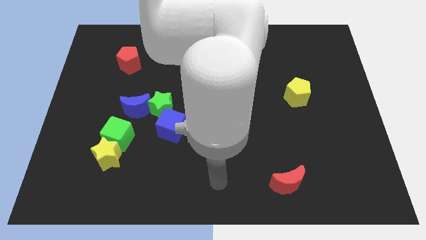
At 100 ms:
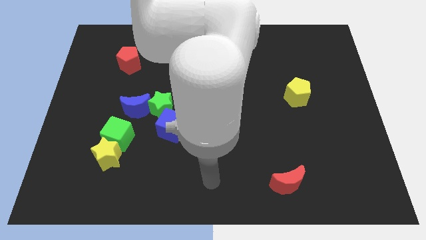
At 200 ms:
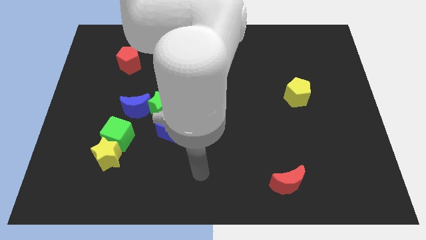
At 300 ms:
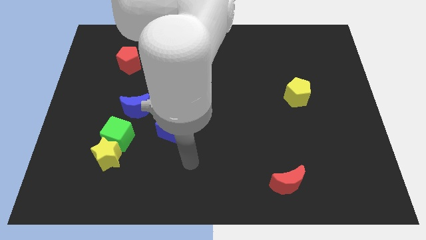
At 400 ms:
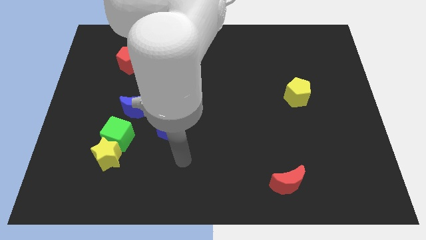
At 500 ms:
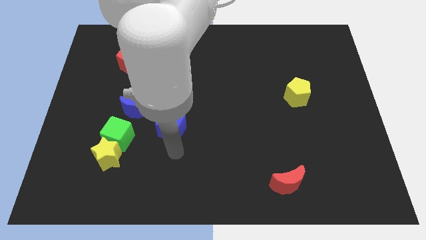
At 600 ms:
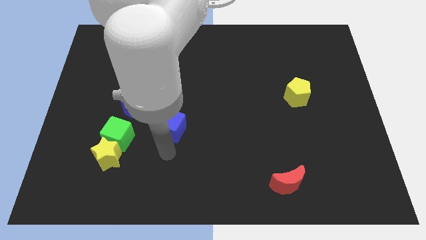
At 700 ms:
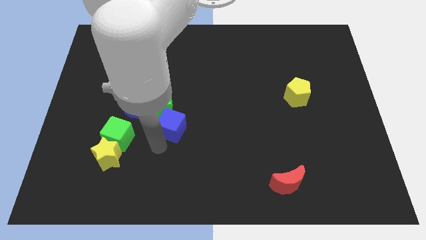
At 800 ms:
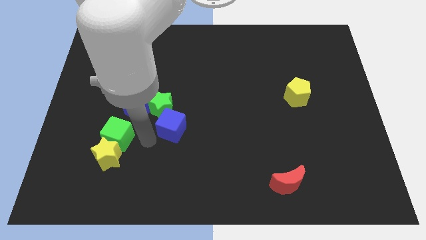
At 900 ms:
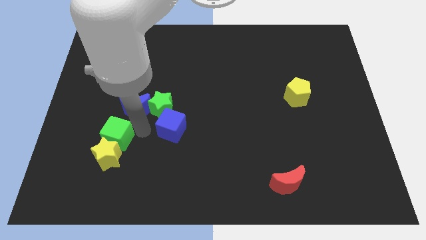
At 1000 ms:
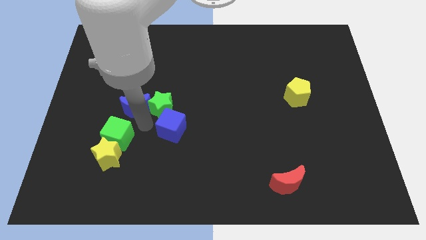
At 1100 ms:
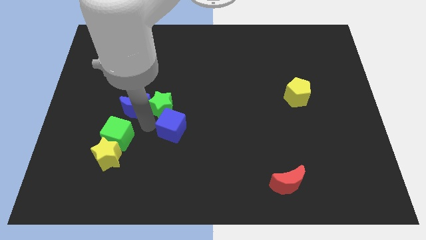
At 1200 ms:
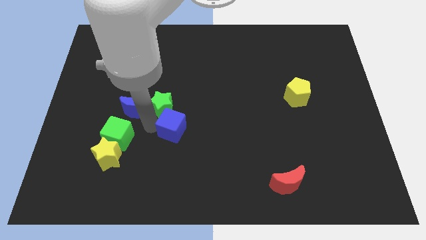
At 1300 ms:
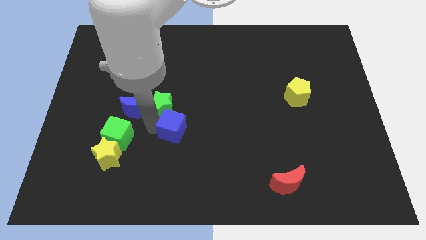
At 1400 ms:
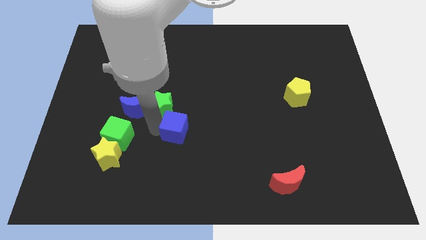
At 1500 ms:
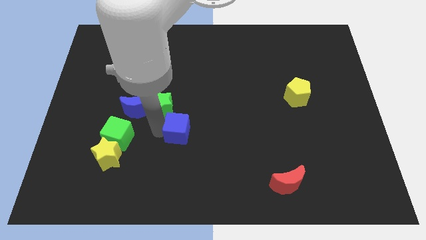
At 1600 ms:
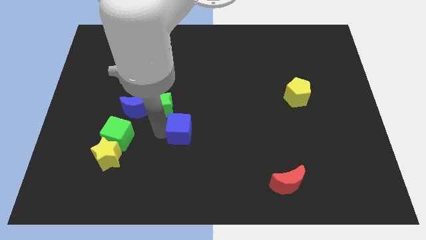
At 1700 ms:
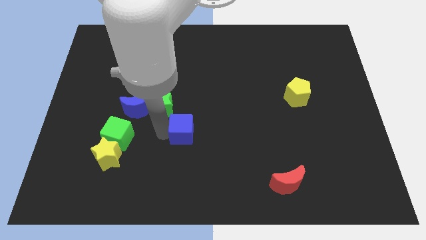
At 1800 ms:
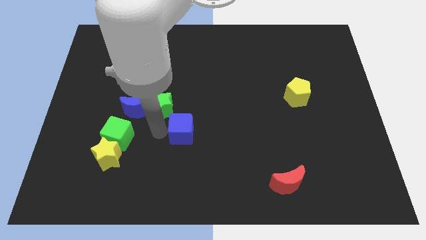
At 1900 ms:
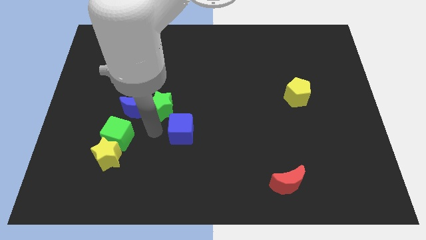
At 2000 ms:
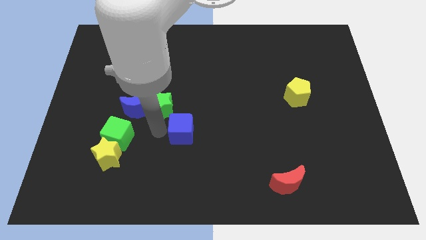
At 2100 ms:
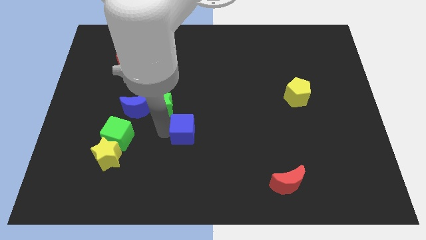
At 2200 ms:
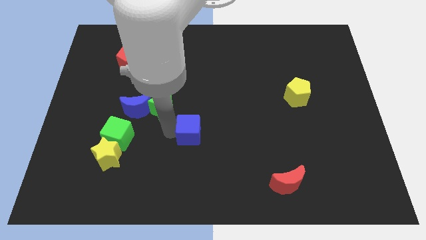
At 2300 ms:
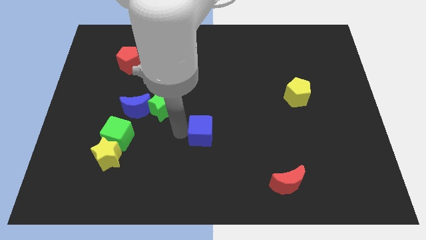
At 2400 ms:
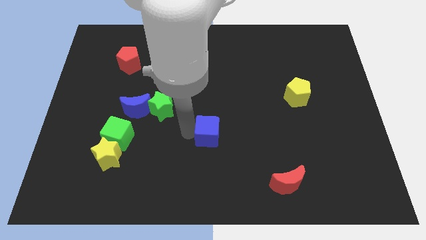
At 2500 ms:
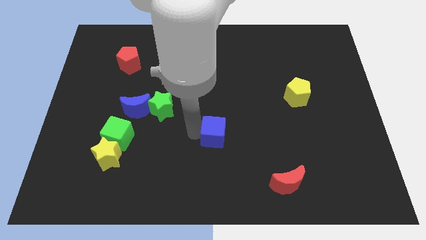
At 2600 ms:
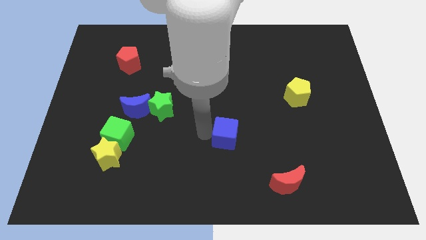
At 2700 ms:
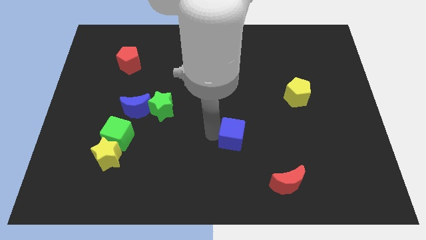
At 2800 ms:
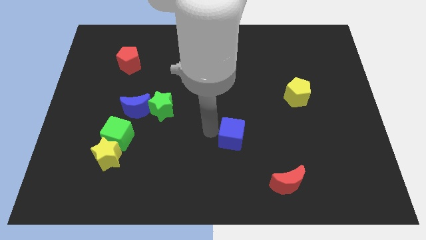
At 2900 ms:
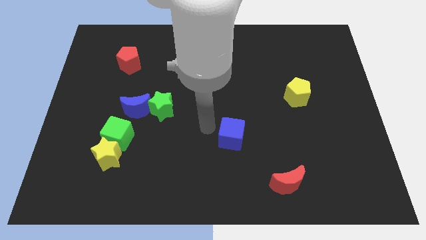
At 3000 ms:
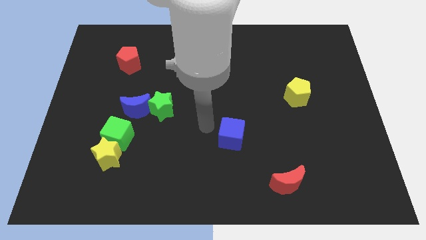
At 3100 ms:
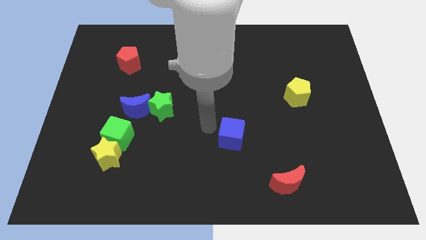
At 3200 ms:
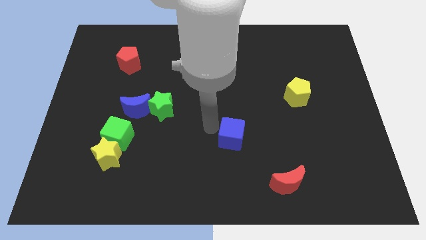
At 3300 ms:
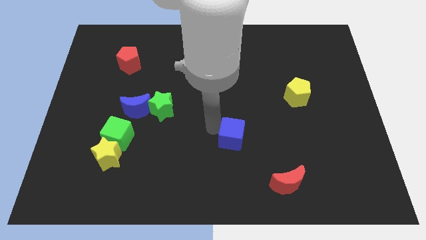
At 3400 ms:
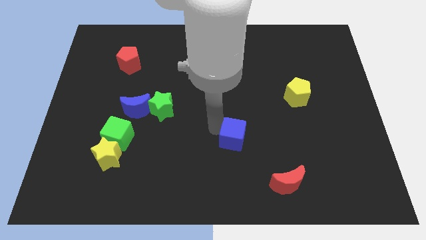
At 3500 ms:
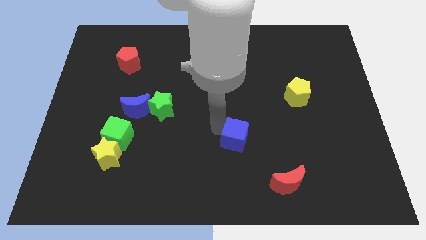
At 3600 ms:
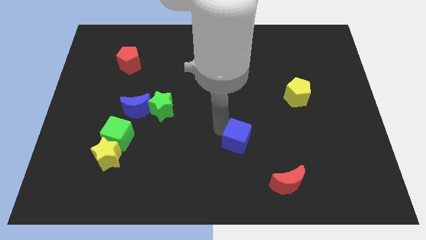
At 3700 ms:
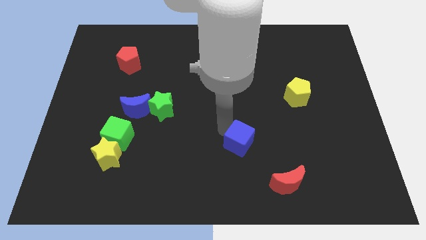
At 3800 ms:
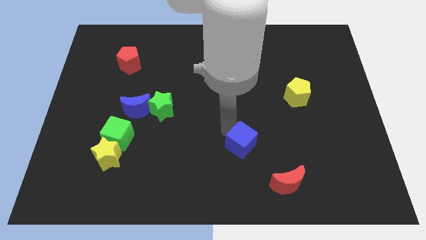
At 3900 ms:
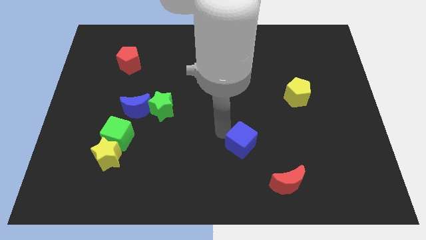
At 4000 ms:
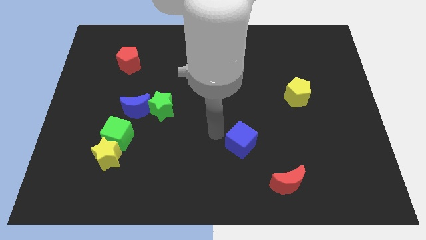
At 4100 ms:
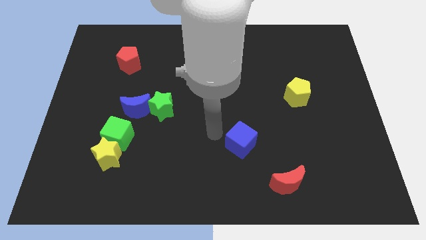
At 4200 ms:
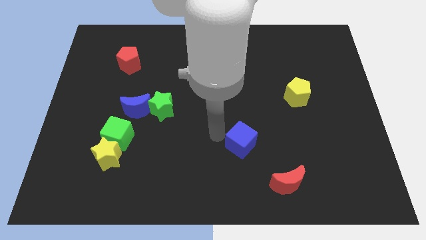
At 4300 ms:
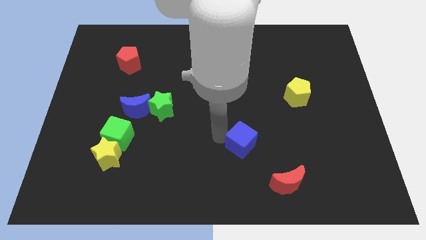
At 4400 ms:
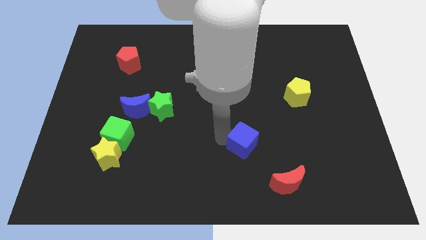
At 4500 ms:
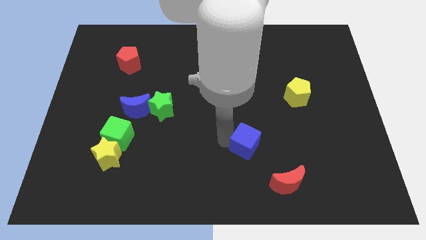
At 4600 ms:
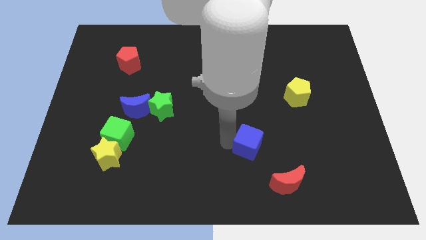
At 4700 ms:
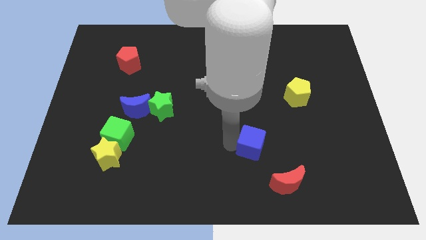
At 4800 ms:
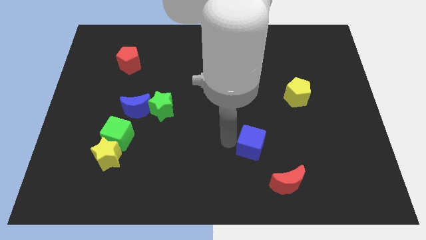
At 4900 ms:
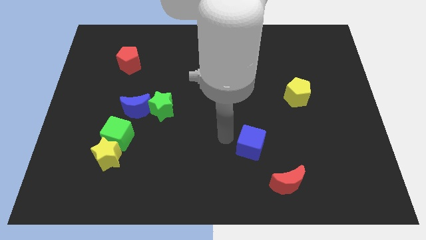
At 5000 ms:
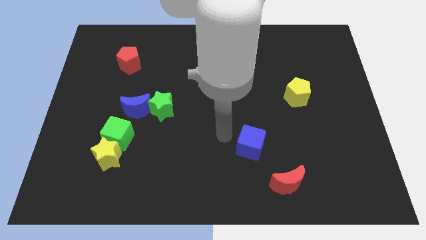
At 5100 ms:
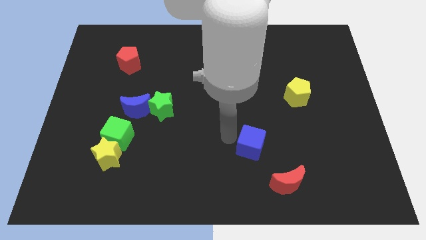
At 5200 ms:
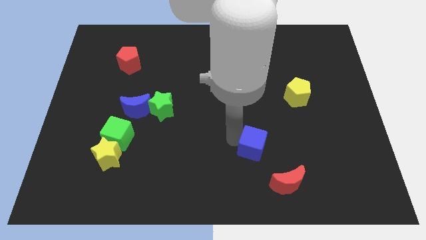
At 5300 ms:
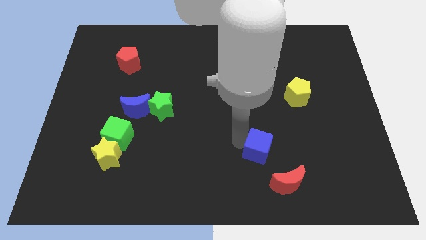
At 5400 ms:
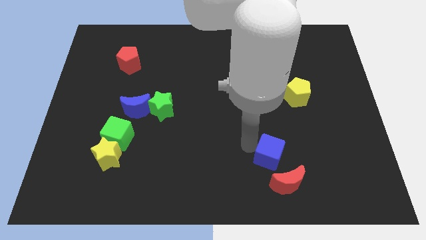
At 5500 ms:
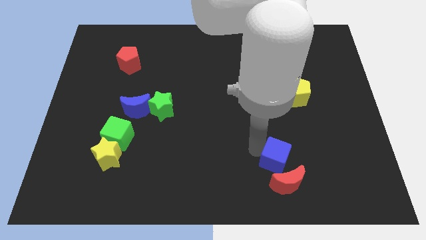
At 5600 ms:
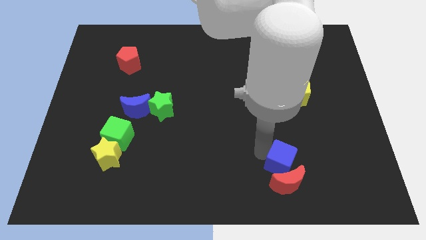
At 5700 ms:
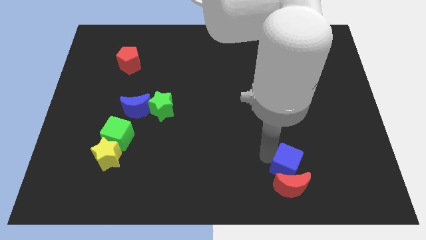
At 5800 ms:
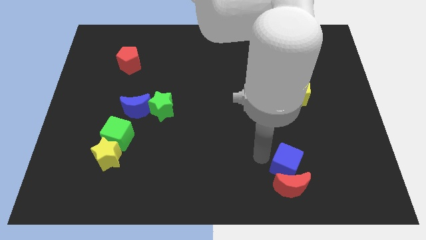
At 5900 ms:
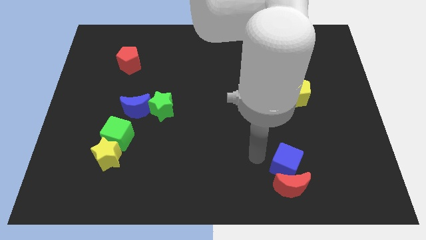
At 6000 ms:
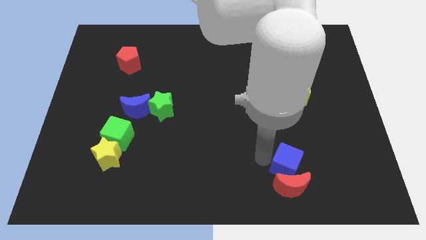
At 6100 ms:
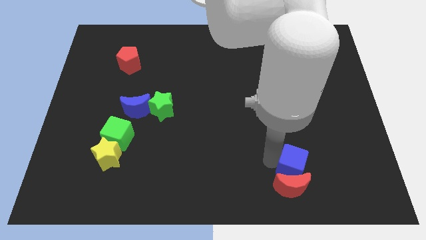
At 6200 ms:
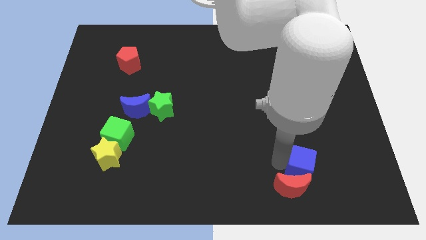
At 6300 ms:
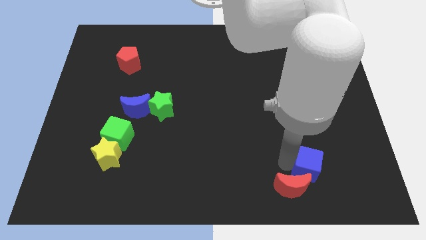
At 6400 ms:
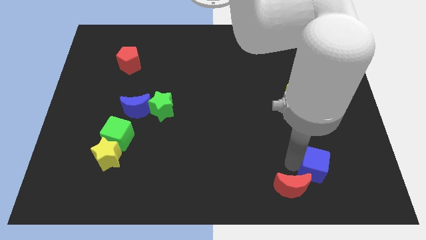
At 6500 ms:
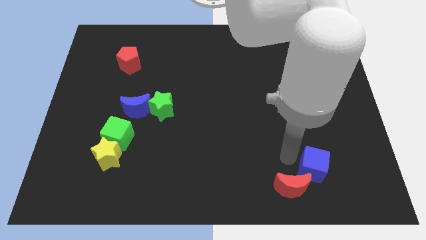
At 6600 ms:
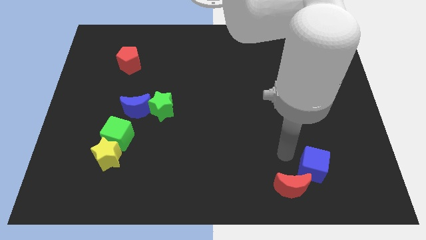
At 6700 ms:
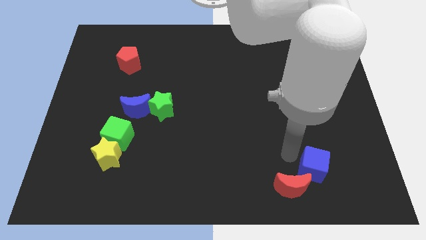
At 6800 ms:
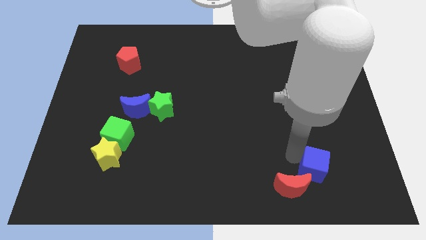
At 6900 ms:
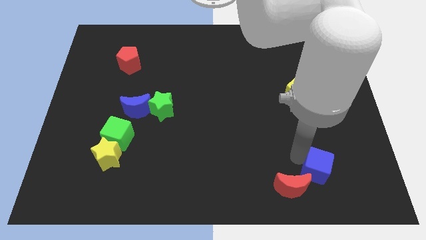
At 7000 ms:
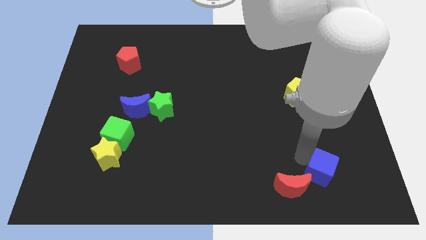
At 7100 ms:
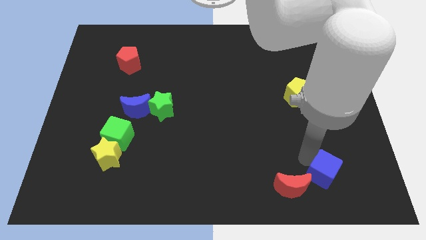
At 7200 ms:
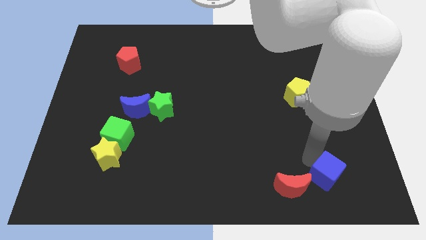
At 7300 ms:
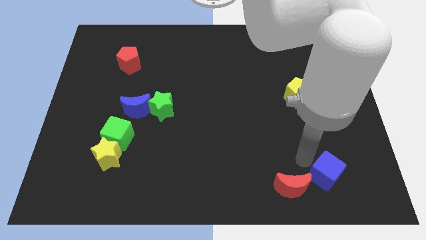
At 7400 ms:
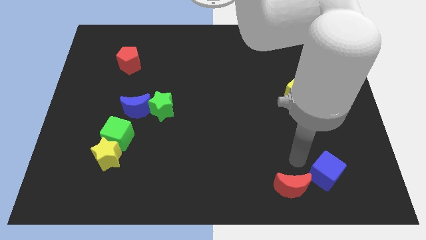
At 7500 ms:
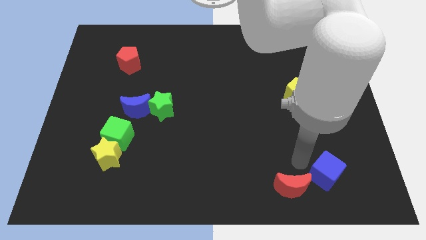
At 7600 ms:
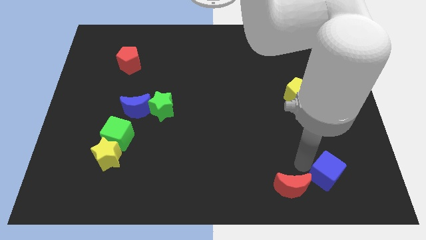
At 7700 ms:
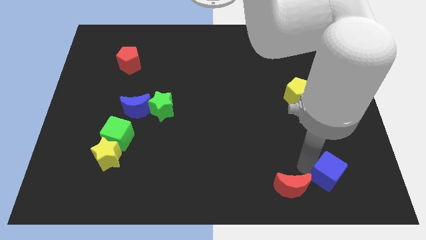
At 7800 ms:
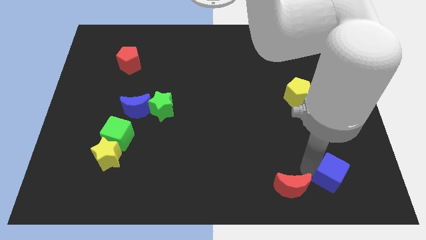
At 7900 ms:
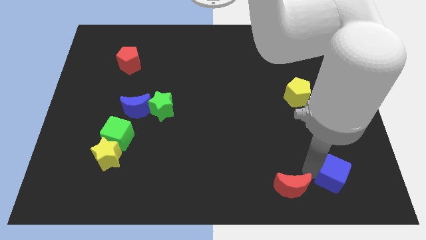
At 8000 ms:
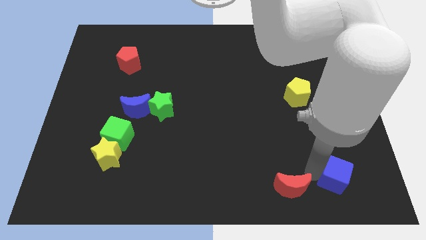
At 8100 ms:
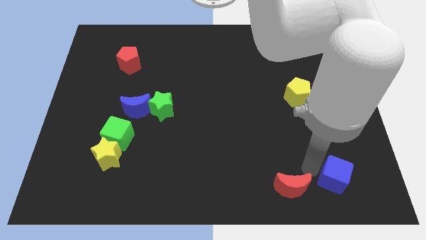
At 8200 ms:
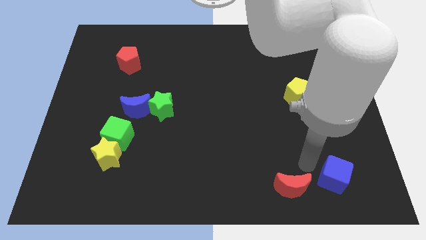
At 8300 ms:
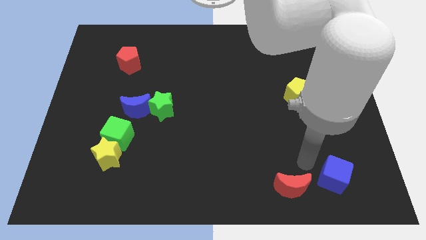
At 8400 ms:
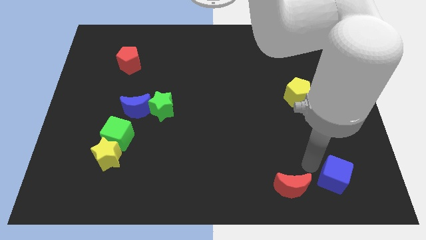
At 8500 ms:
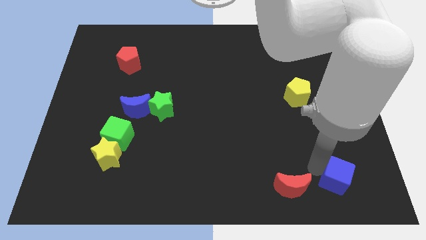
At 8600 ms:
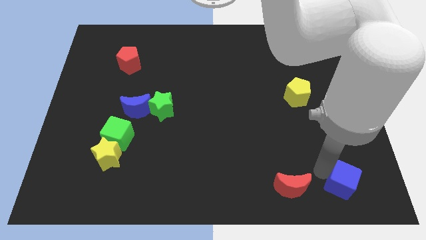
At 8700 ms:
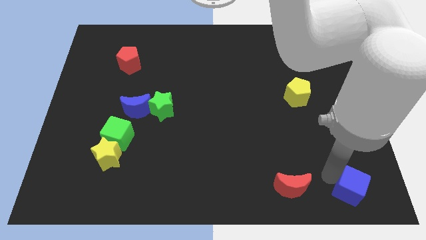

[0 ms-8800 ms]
put the blue cube to the lower right corner
